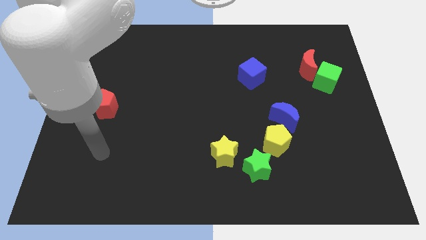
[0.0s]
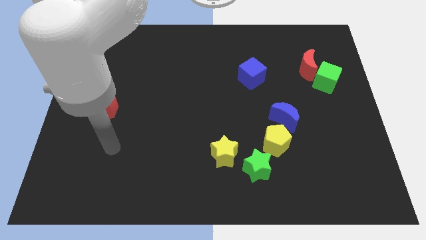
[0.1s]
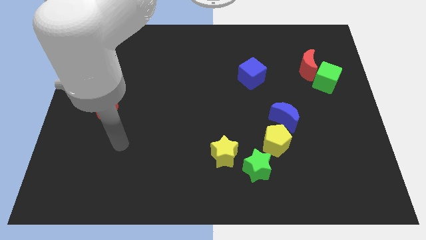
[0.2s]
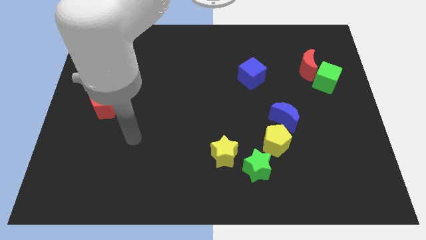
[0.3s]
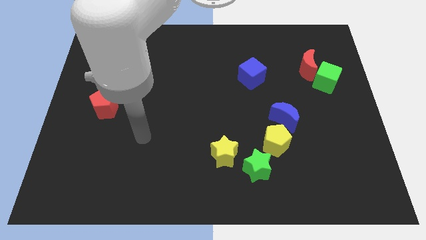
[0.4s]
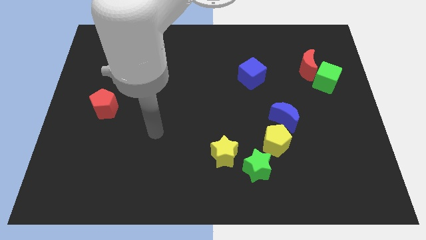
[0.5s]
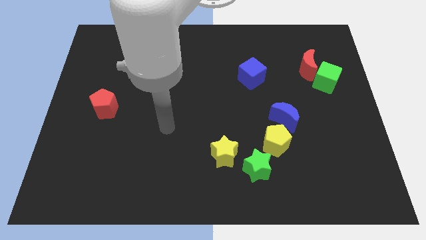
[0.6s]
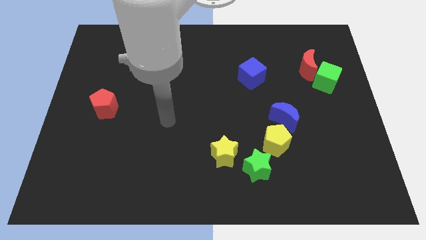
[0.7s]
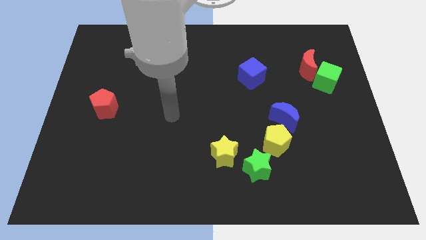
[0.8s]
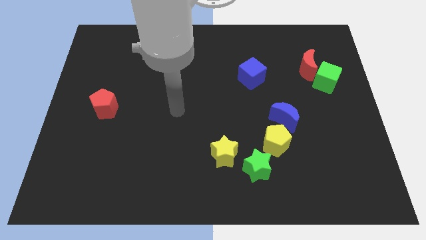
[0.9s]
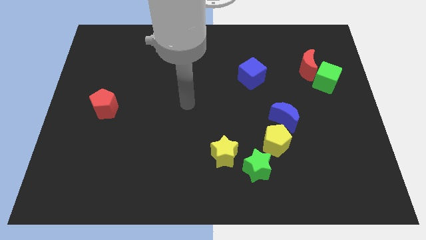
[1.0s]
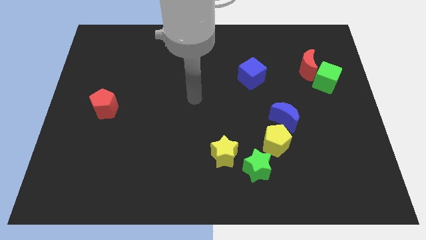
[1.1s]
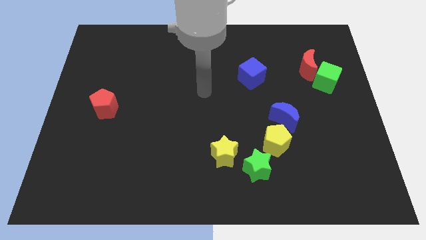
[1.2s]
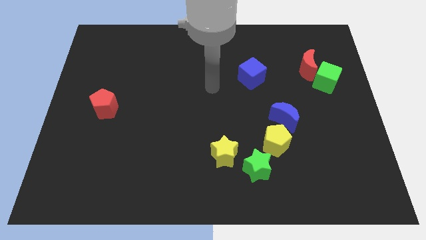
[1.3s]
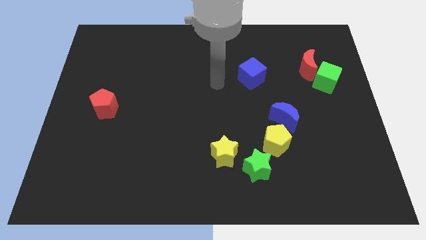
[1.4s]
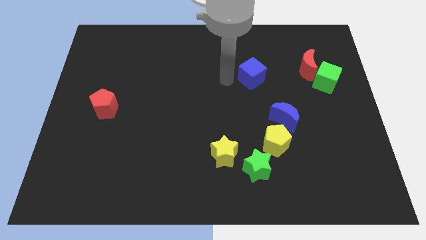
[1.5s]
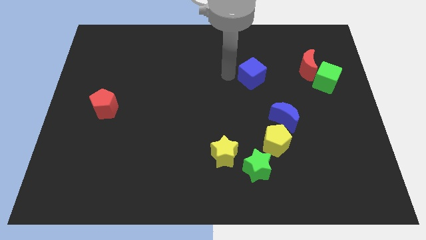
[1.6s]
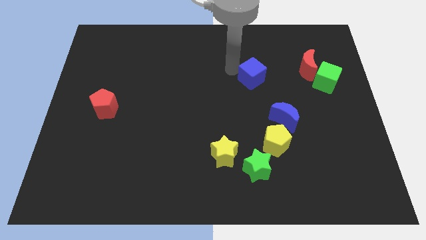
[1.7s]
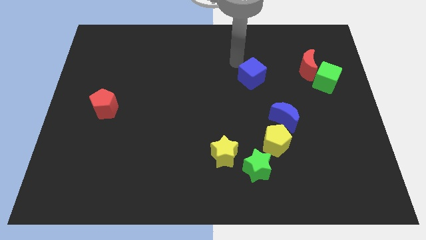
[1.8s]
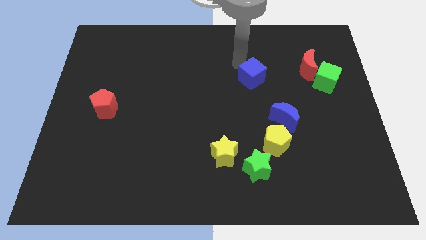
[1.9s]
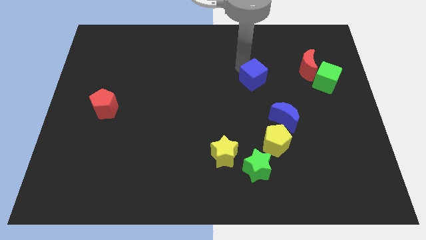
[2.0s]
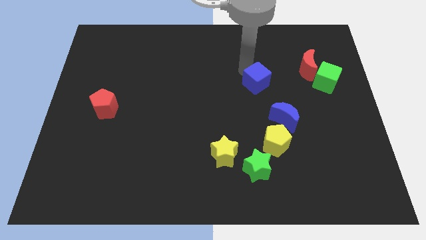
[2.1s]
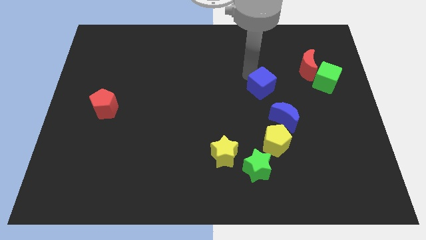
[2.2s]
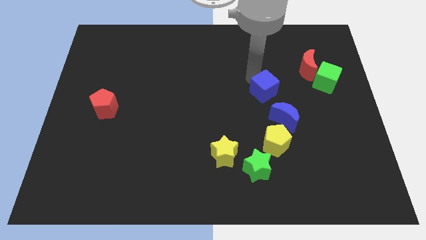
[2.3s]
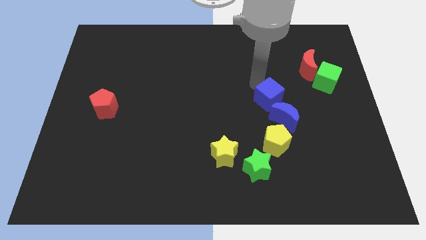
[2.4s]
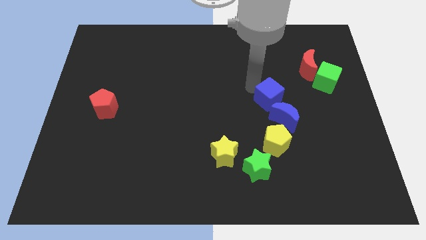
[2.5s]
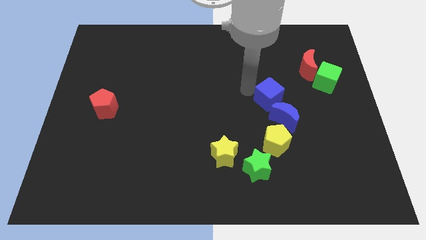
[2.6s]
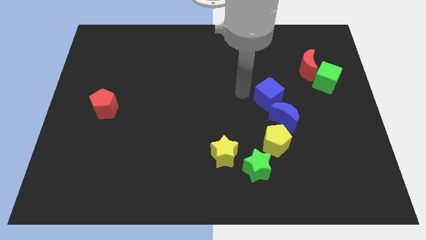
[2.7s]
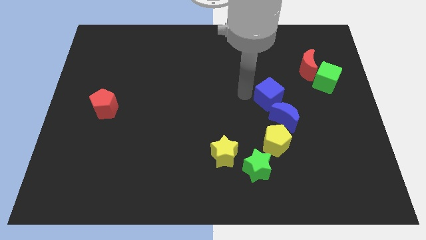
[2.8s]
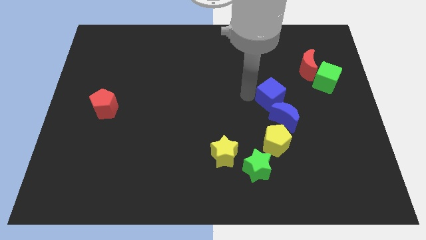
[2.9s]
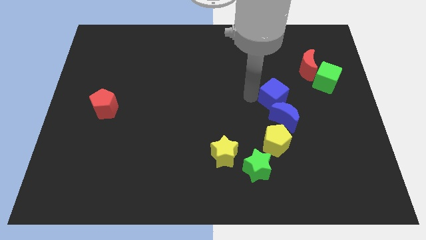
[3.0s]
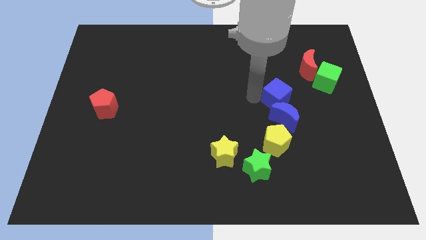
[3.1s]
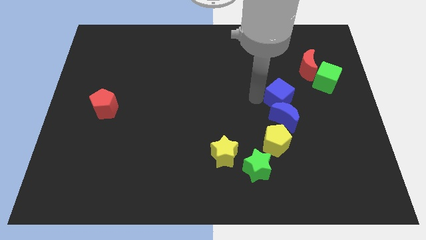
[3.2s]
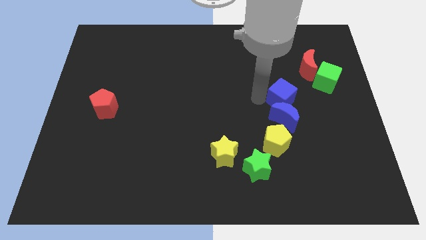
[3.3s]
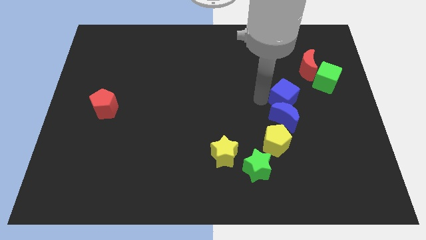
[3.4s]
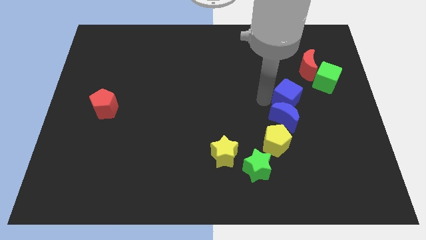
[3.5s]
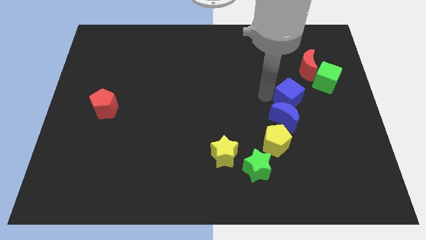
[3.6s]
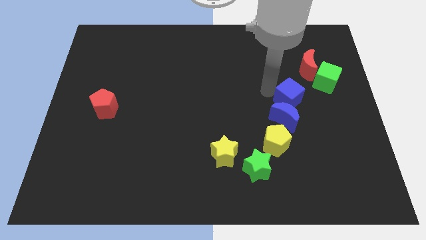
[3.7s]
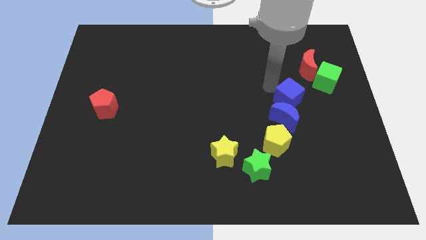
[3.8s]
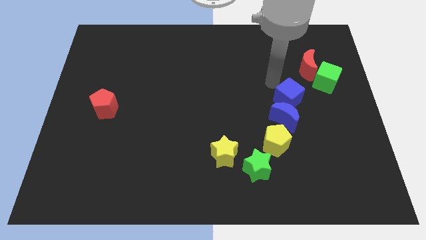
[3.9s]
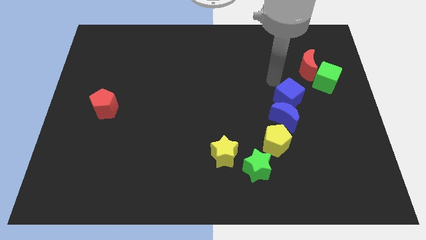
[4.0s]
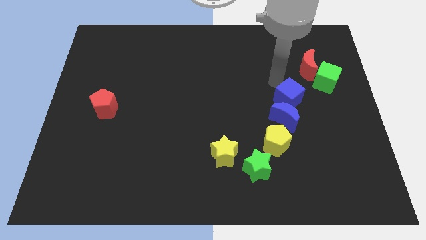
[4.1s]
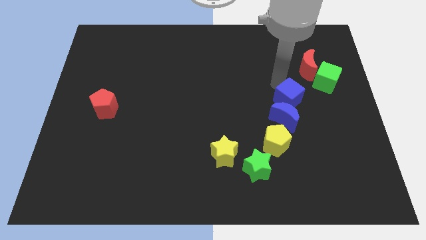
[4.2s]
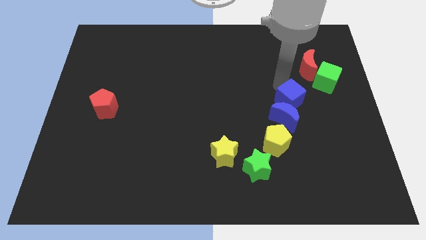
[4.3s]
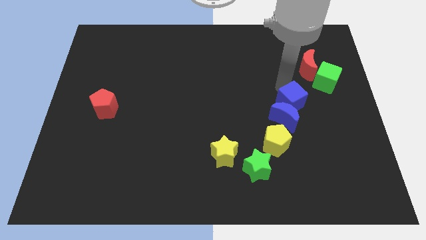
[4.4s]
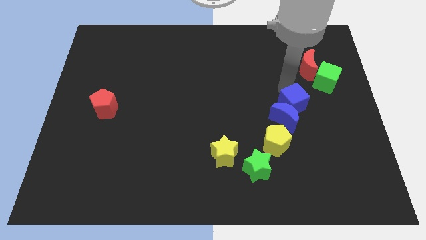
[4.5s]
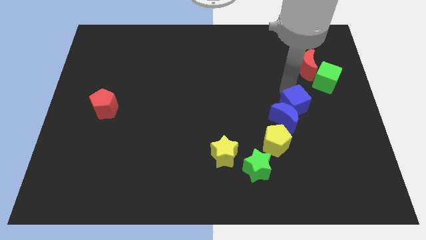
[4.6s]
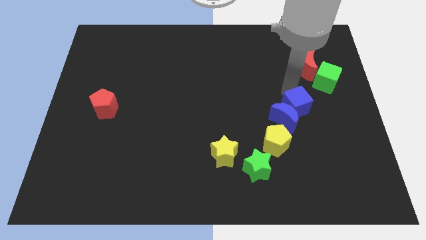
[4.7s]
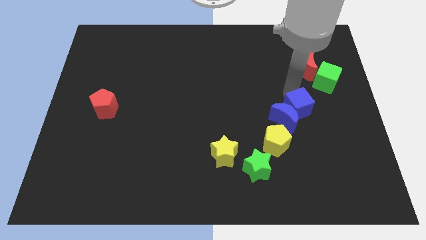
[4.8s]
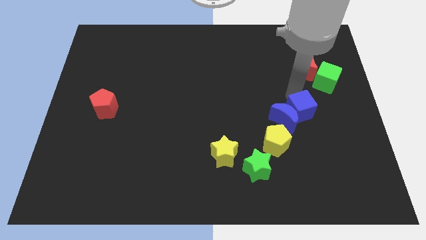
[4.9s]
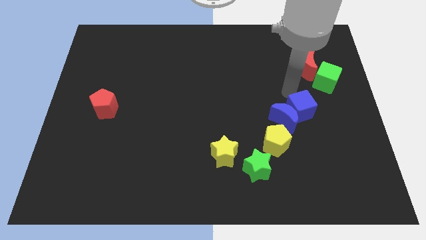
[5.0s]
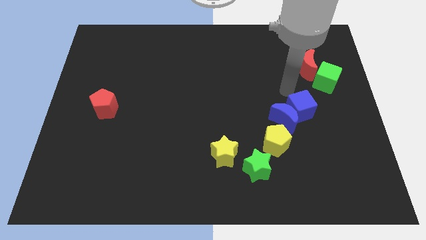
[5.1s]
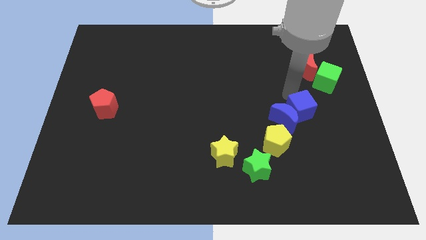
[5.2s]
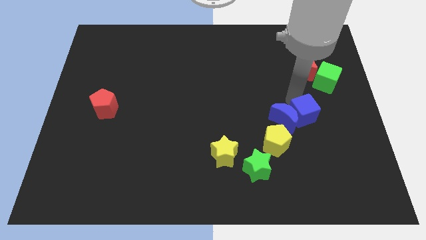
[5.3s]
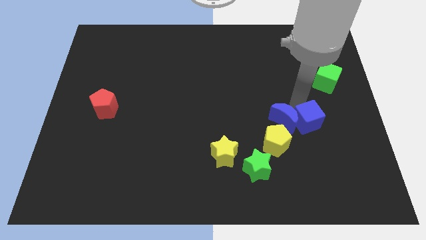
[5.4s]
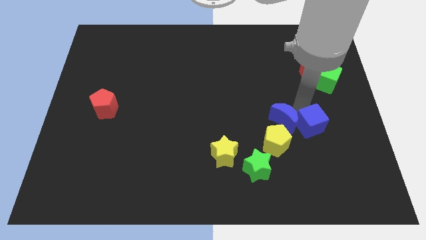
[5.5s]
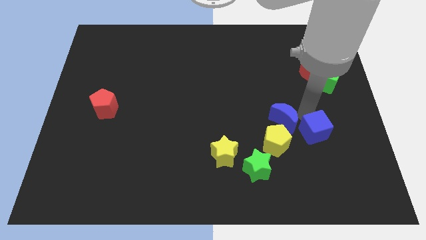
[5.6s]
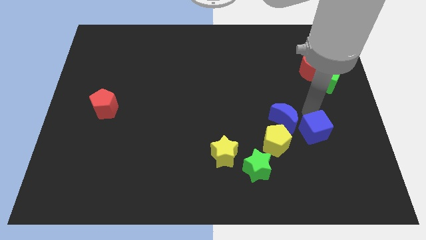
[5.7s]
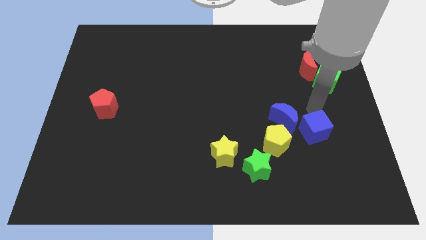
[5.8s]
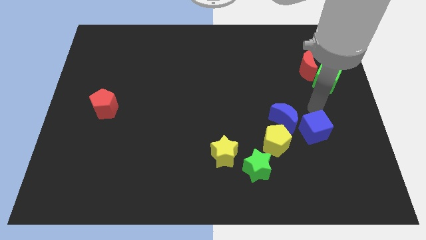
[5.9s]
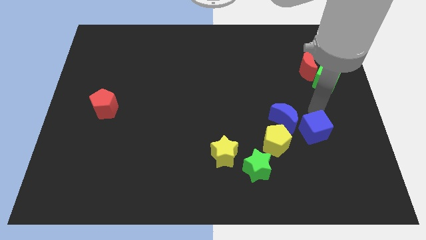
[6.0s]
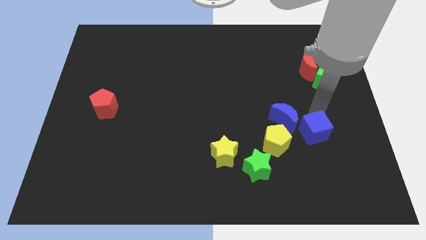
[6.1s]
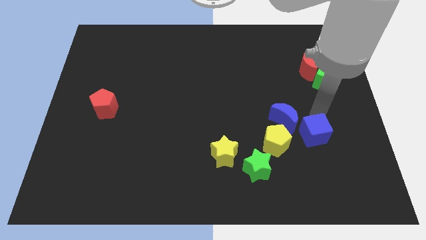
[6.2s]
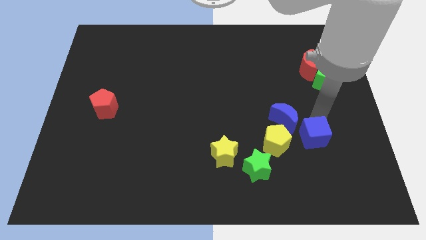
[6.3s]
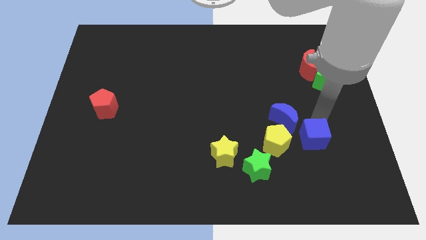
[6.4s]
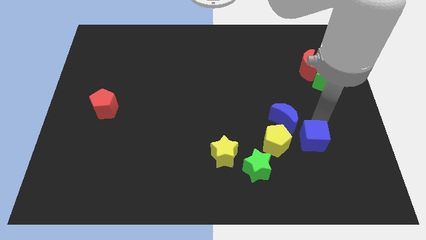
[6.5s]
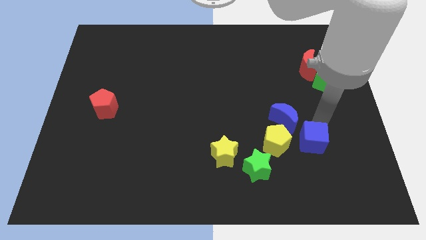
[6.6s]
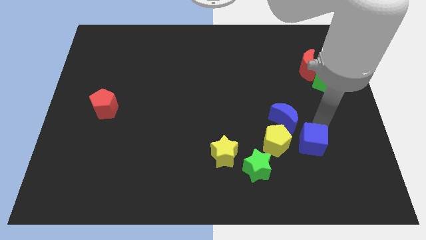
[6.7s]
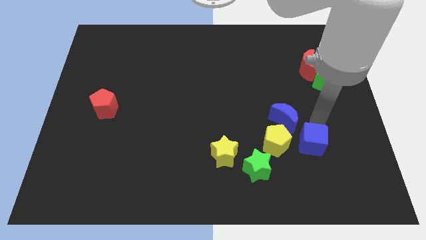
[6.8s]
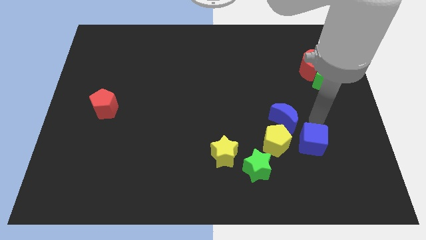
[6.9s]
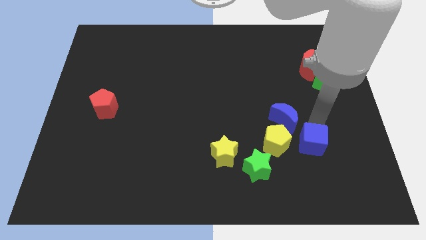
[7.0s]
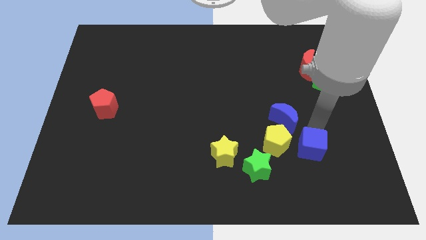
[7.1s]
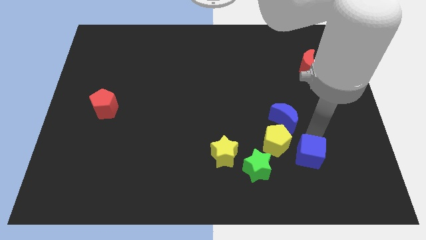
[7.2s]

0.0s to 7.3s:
slide the blue cube to the right of the green star
